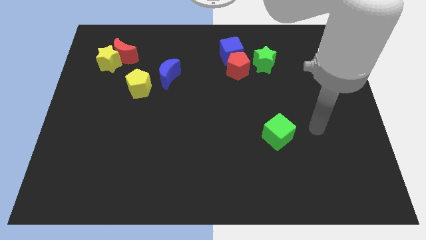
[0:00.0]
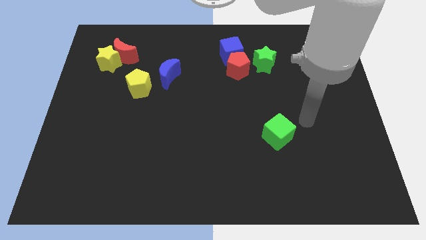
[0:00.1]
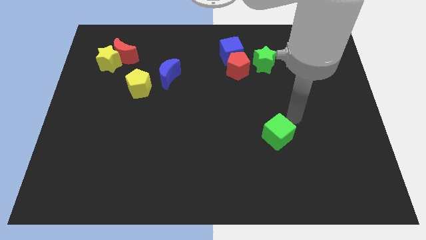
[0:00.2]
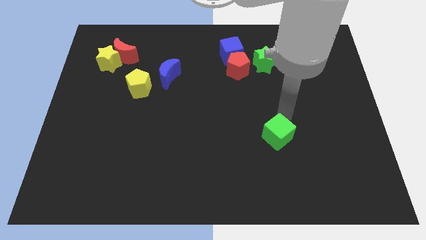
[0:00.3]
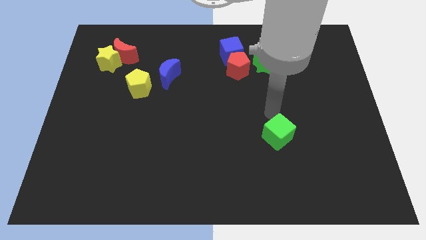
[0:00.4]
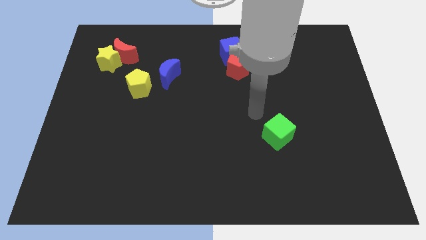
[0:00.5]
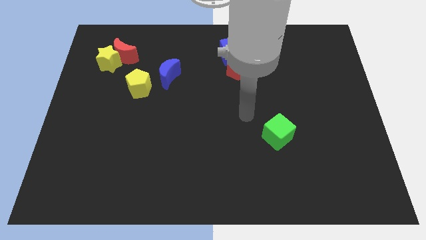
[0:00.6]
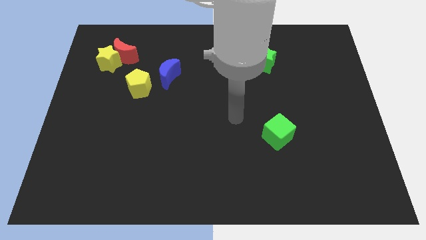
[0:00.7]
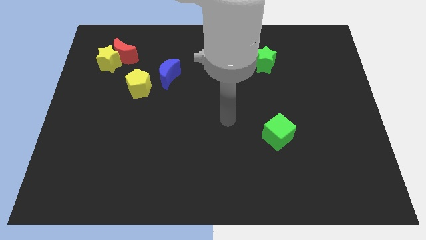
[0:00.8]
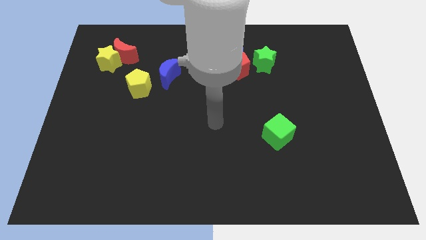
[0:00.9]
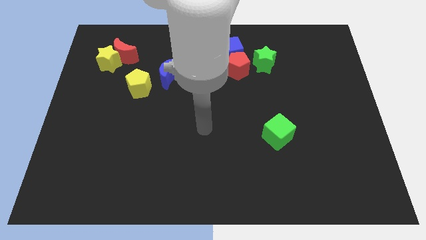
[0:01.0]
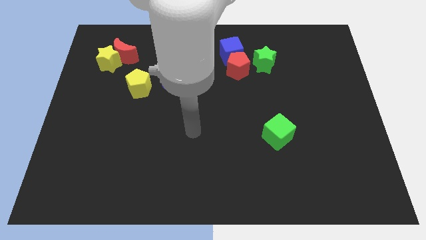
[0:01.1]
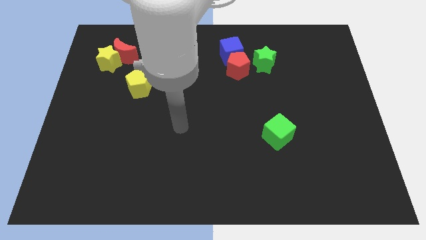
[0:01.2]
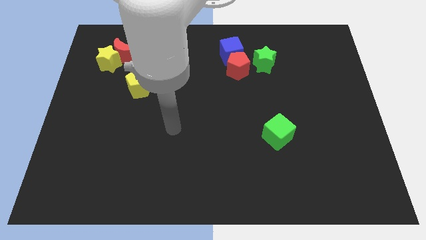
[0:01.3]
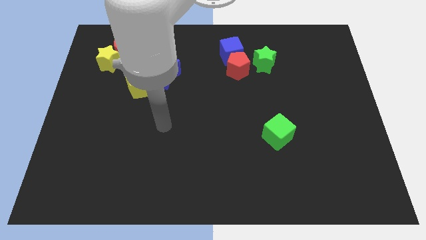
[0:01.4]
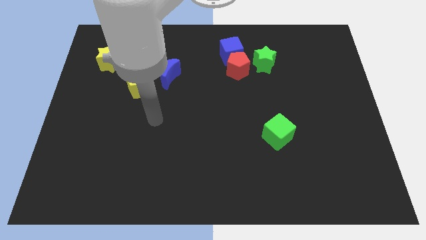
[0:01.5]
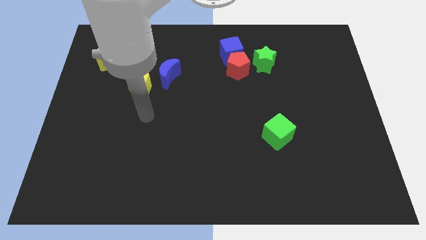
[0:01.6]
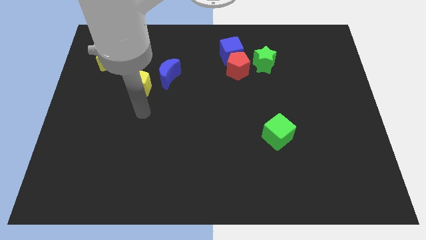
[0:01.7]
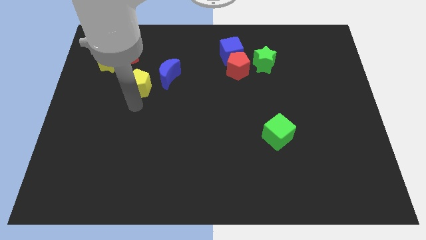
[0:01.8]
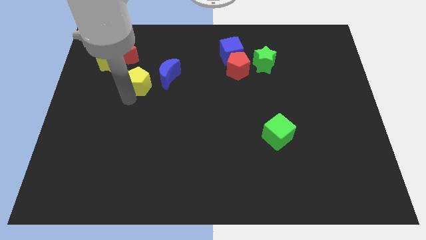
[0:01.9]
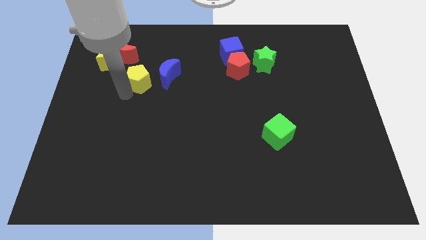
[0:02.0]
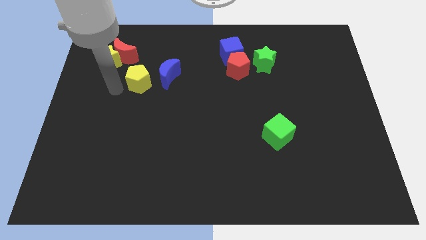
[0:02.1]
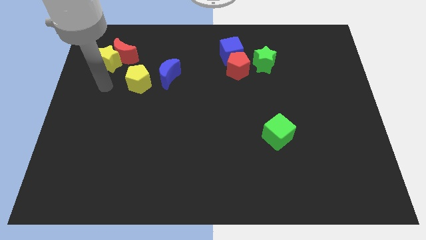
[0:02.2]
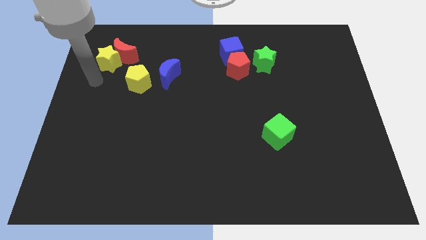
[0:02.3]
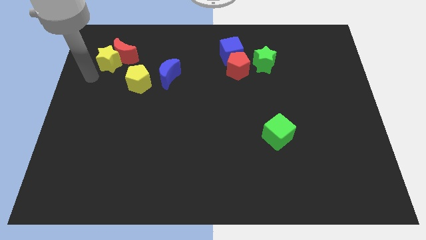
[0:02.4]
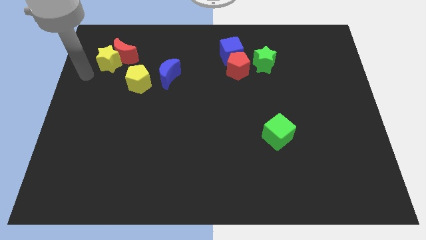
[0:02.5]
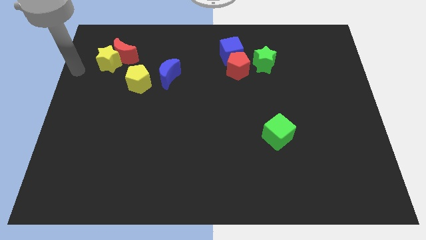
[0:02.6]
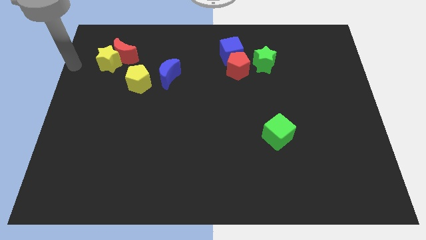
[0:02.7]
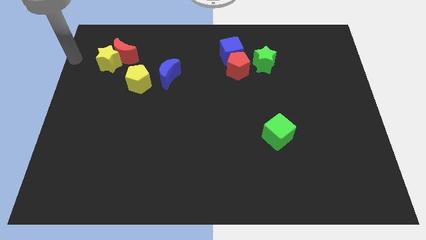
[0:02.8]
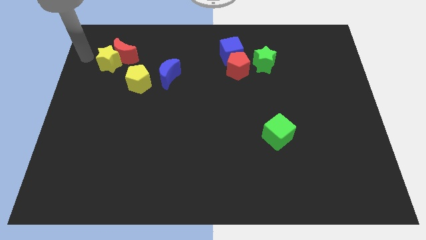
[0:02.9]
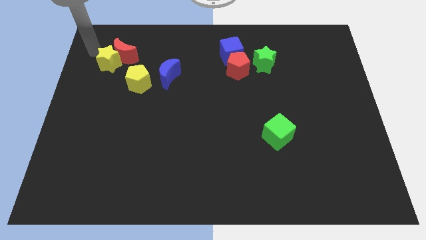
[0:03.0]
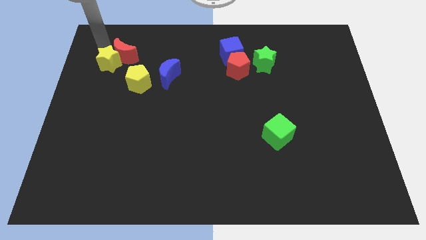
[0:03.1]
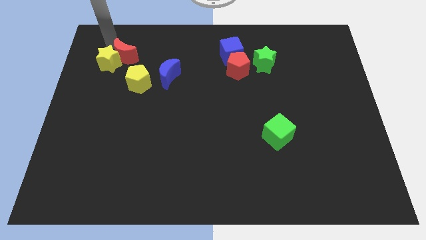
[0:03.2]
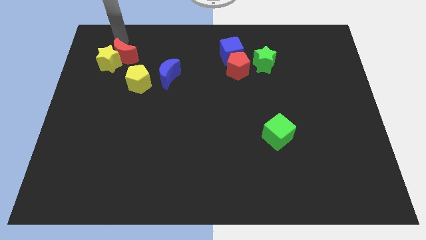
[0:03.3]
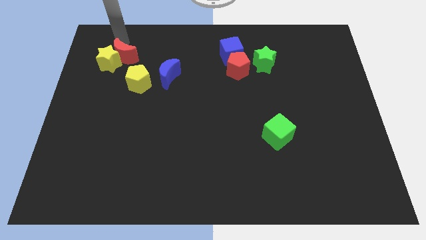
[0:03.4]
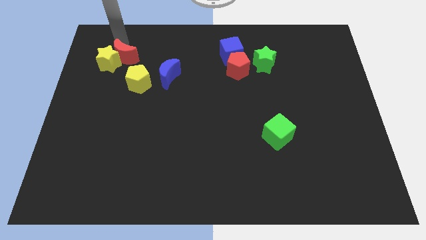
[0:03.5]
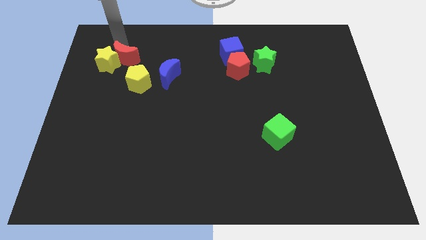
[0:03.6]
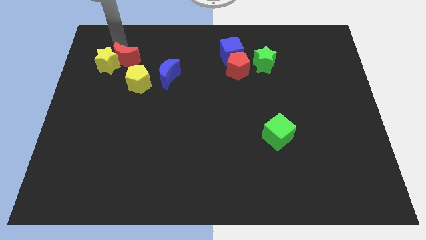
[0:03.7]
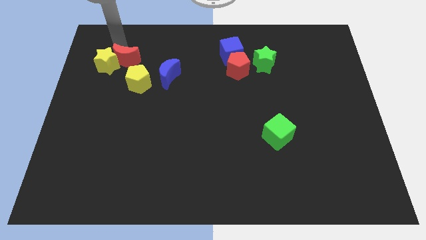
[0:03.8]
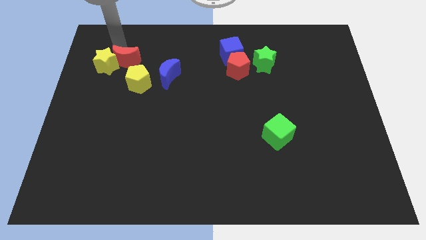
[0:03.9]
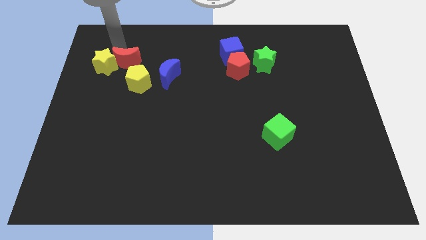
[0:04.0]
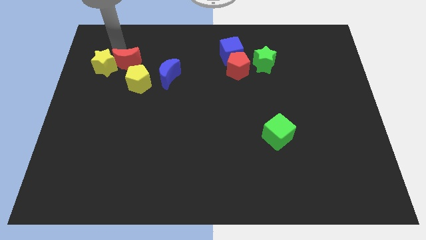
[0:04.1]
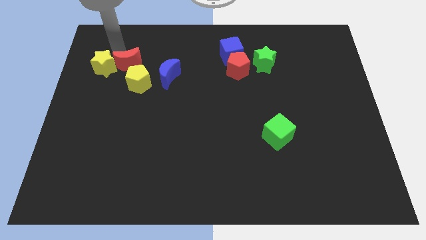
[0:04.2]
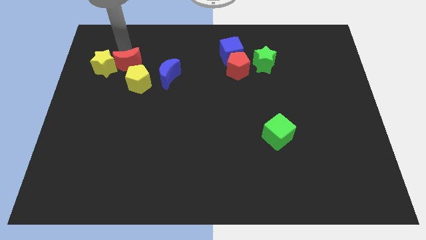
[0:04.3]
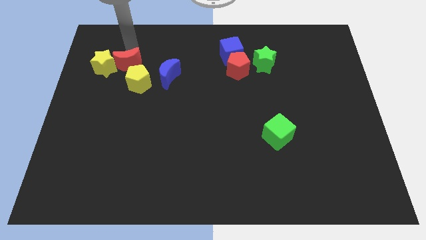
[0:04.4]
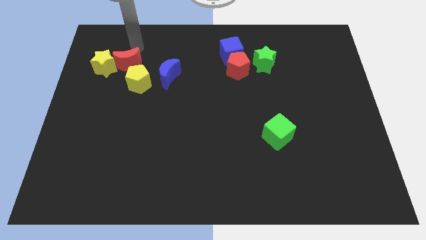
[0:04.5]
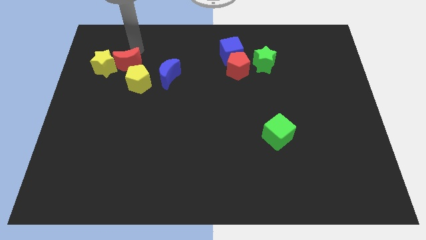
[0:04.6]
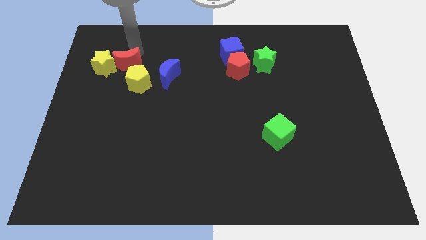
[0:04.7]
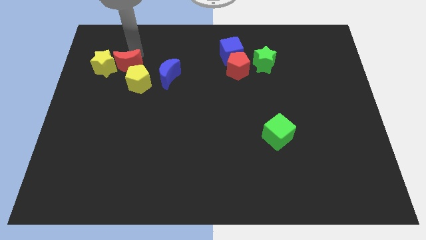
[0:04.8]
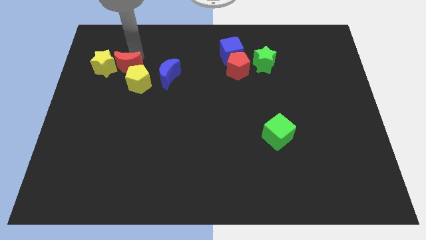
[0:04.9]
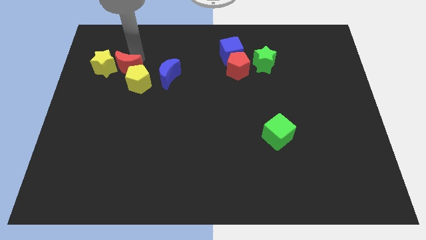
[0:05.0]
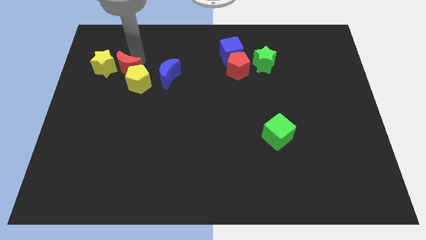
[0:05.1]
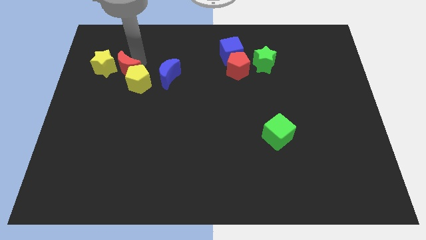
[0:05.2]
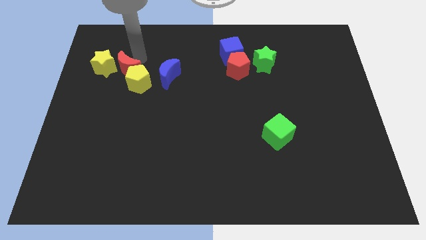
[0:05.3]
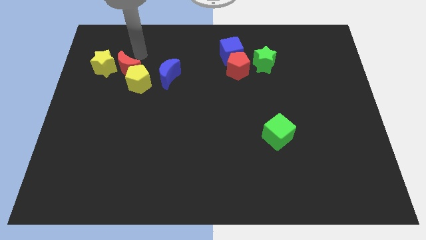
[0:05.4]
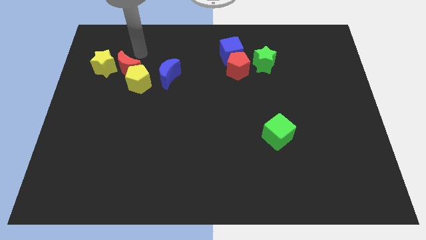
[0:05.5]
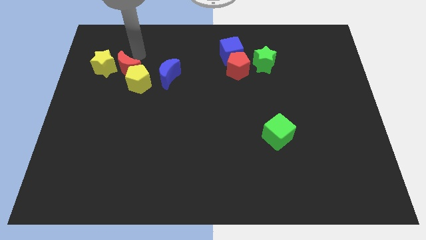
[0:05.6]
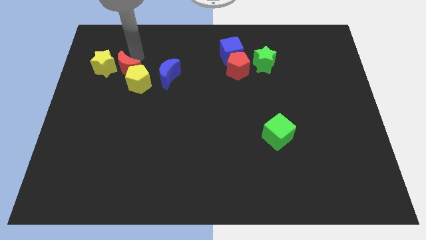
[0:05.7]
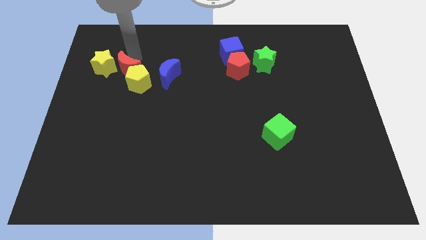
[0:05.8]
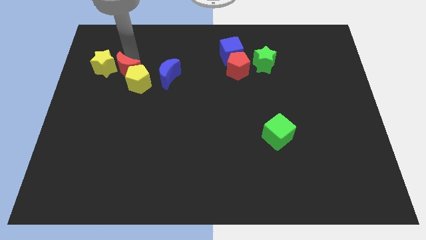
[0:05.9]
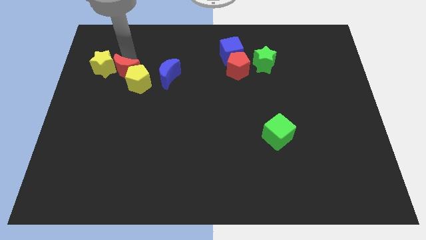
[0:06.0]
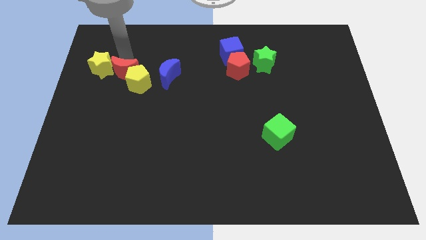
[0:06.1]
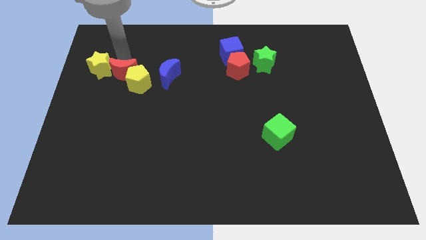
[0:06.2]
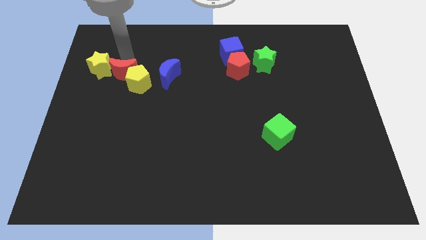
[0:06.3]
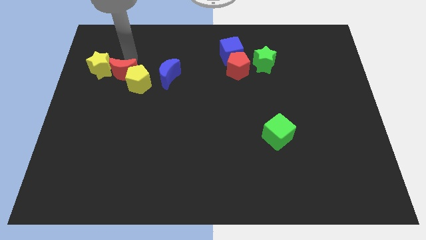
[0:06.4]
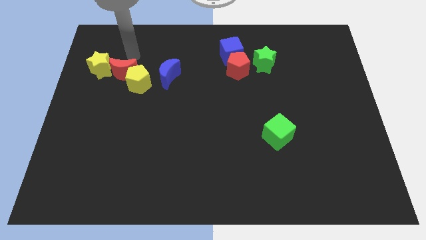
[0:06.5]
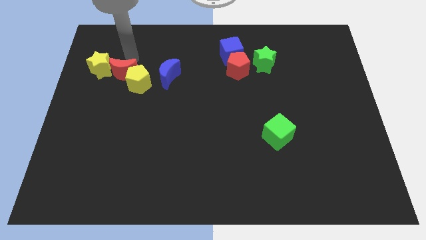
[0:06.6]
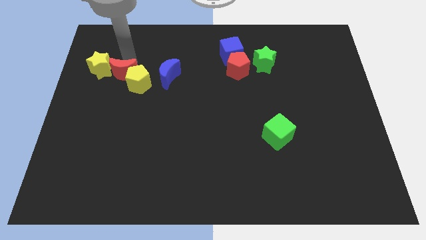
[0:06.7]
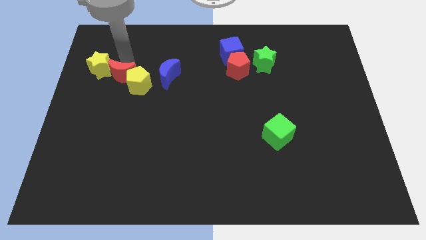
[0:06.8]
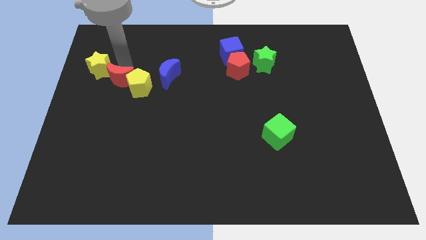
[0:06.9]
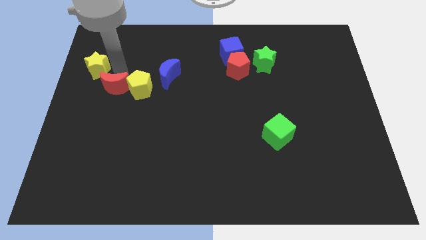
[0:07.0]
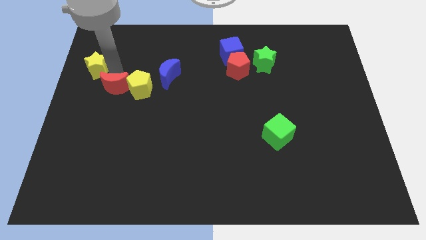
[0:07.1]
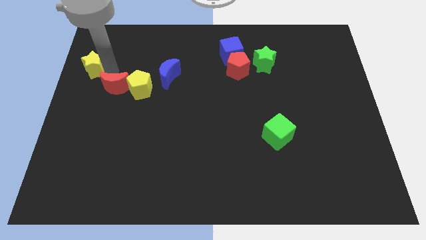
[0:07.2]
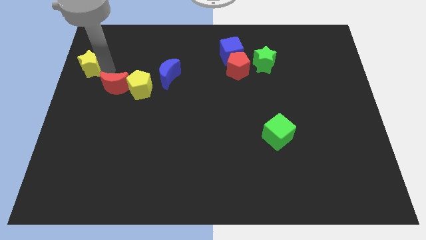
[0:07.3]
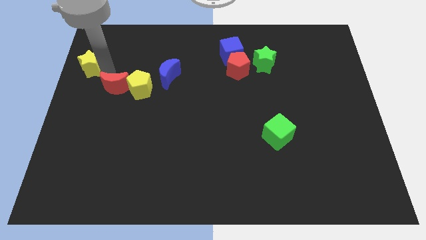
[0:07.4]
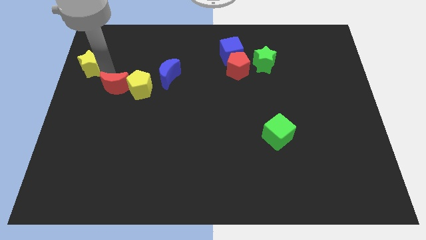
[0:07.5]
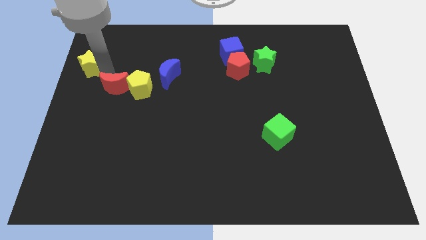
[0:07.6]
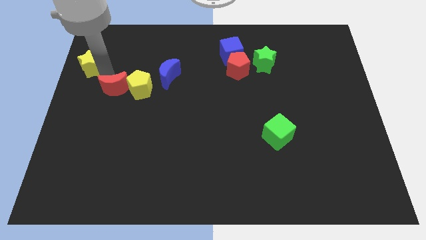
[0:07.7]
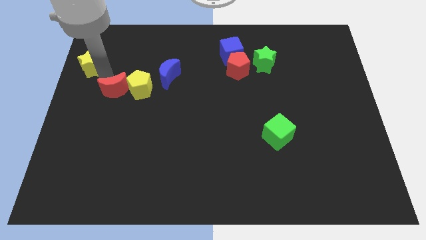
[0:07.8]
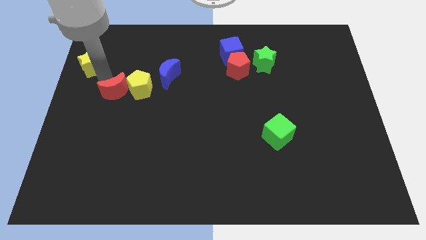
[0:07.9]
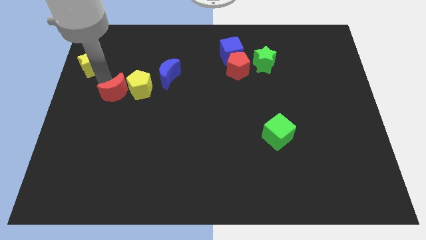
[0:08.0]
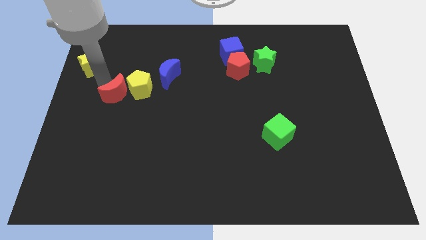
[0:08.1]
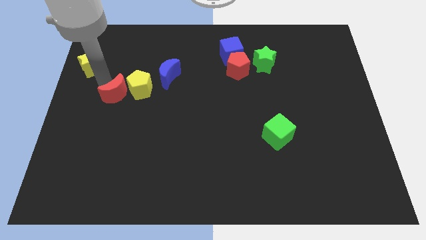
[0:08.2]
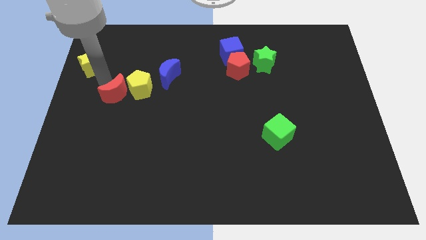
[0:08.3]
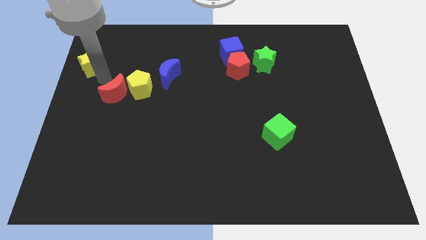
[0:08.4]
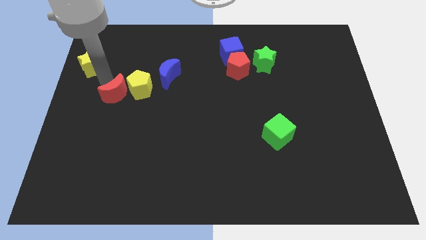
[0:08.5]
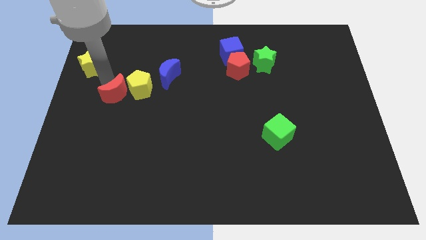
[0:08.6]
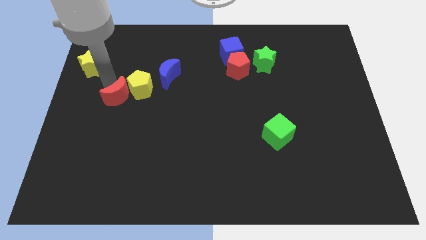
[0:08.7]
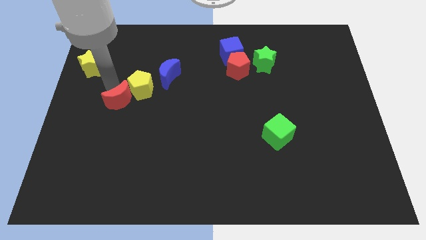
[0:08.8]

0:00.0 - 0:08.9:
slide the red moon to the bottom side of the yellow pentagon
